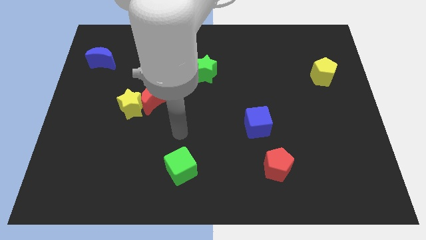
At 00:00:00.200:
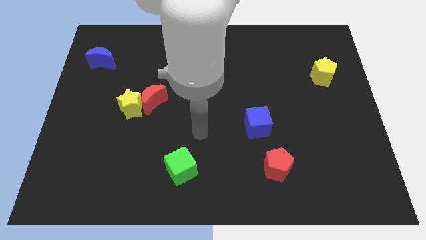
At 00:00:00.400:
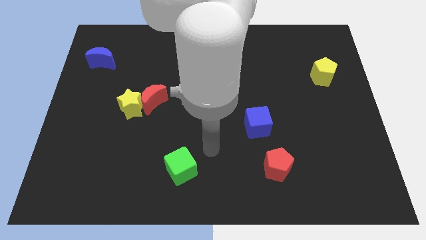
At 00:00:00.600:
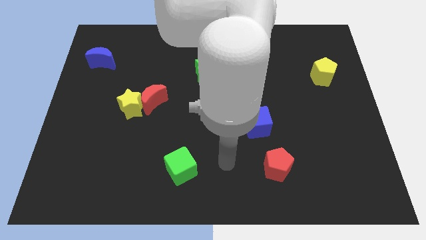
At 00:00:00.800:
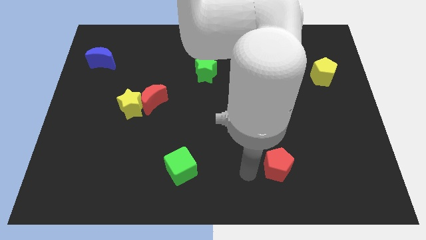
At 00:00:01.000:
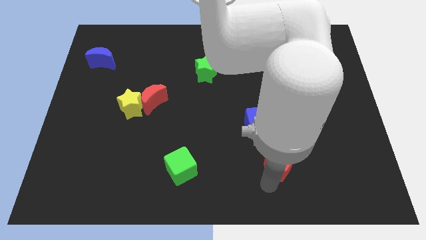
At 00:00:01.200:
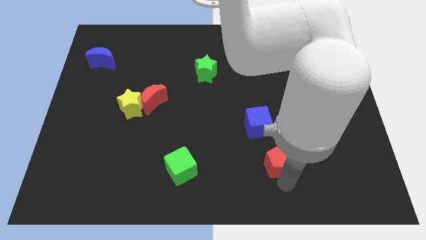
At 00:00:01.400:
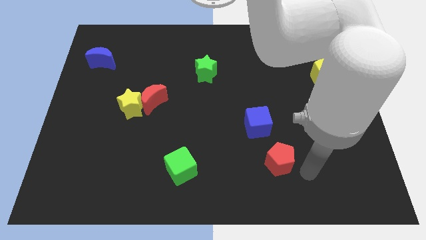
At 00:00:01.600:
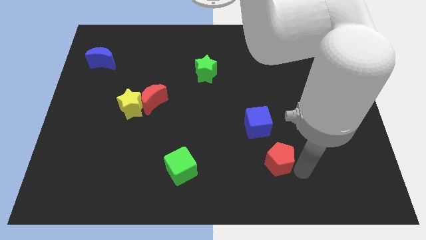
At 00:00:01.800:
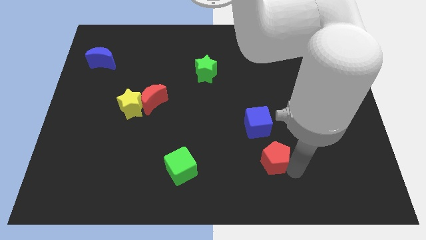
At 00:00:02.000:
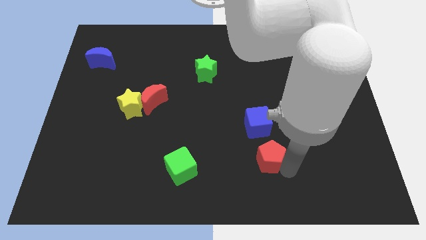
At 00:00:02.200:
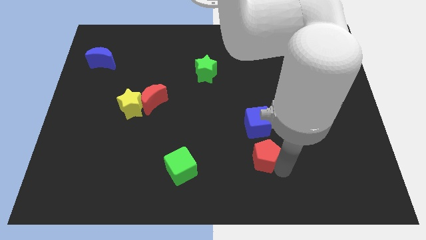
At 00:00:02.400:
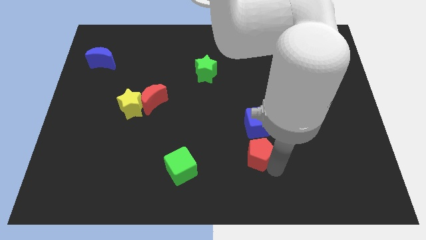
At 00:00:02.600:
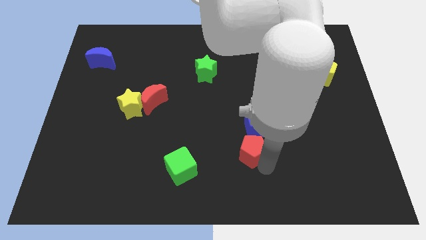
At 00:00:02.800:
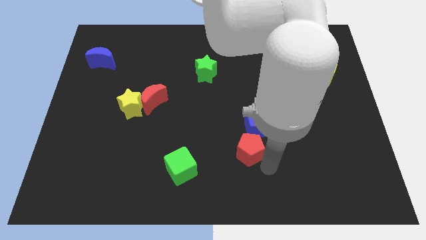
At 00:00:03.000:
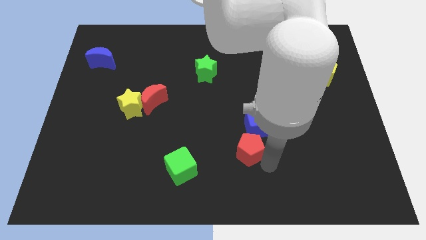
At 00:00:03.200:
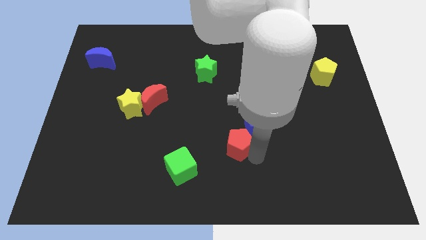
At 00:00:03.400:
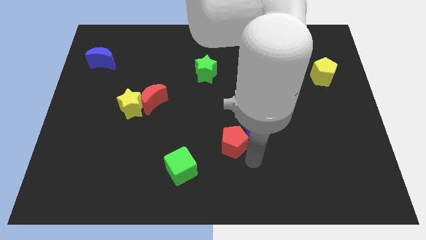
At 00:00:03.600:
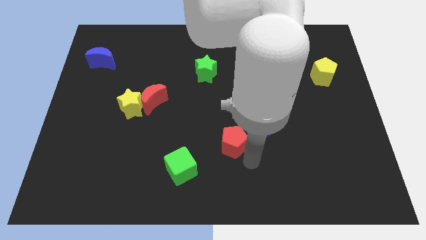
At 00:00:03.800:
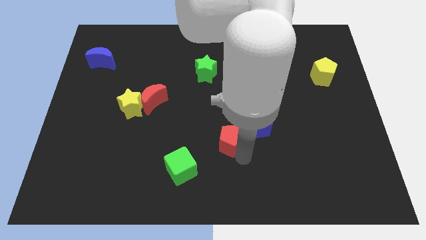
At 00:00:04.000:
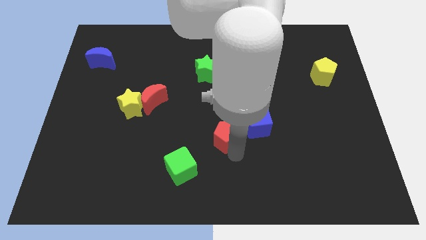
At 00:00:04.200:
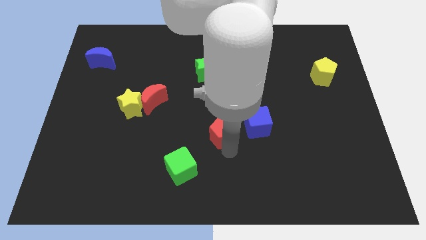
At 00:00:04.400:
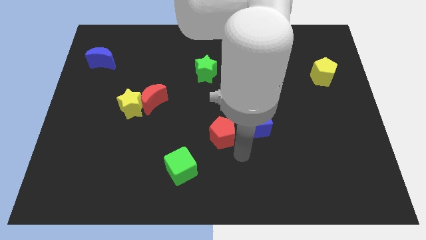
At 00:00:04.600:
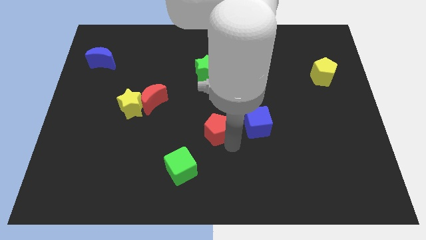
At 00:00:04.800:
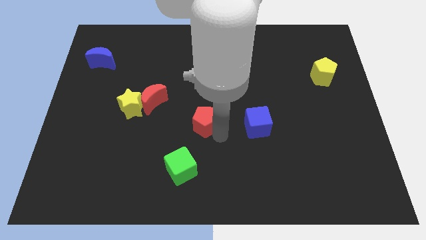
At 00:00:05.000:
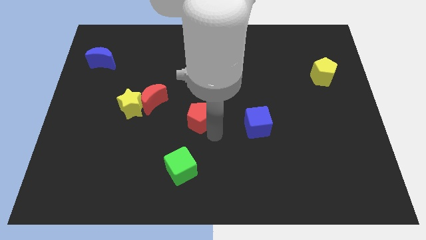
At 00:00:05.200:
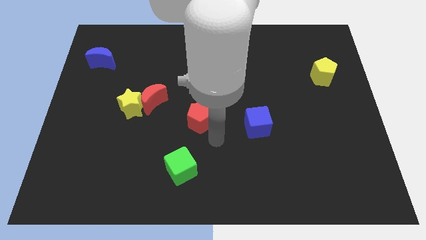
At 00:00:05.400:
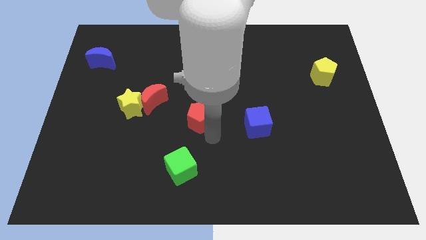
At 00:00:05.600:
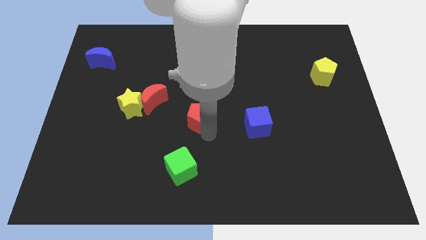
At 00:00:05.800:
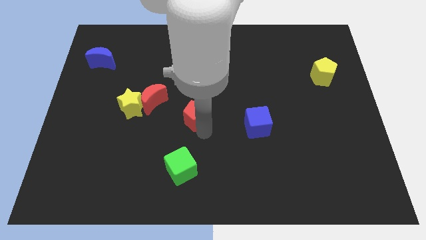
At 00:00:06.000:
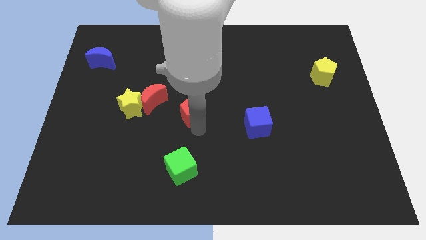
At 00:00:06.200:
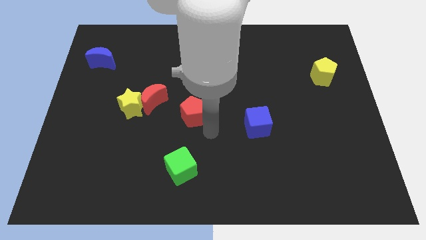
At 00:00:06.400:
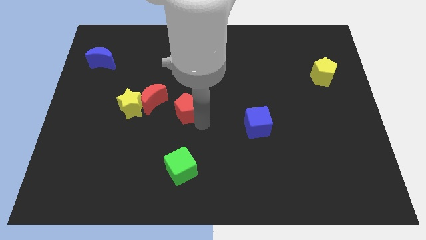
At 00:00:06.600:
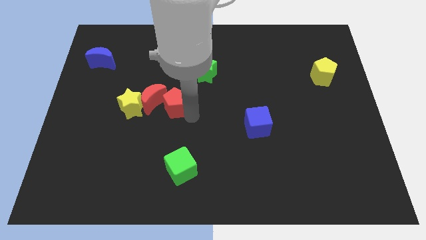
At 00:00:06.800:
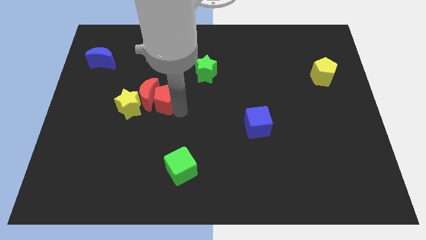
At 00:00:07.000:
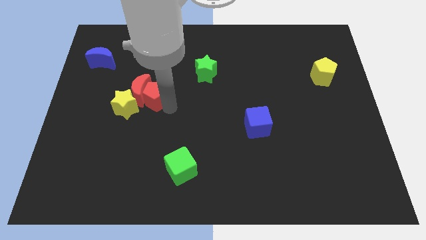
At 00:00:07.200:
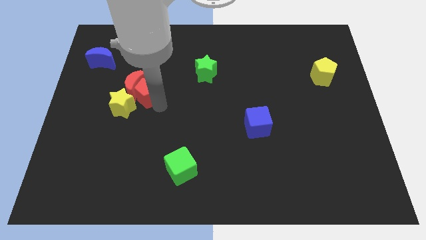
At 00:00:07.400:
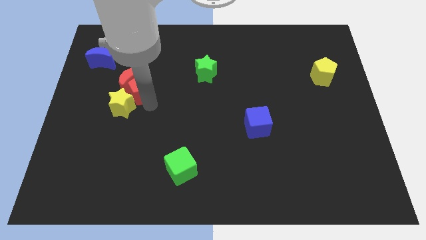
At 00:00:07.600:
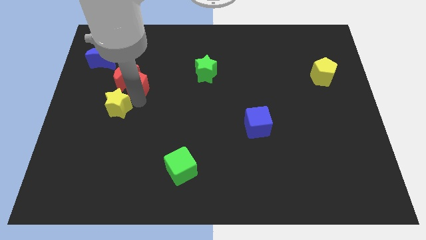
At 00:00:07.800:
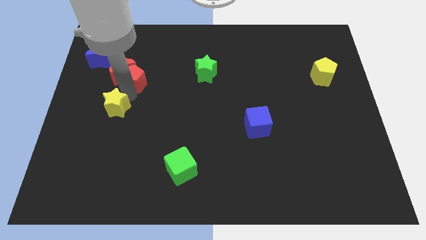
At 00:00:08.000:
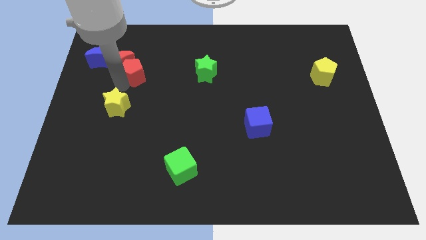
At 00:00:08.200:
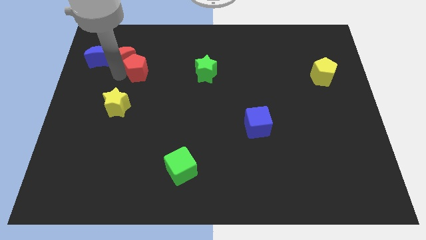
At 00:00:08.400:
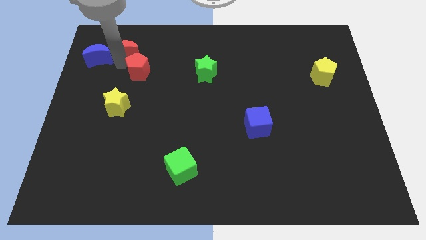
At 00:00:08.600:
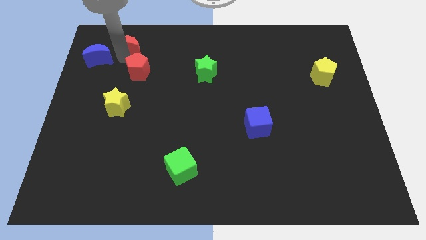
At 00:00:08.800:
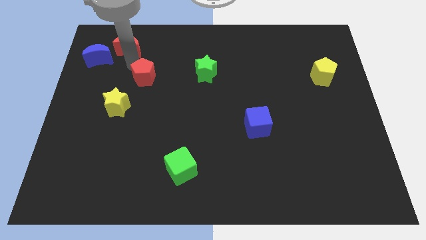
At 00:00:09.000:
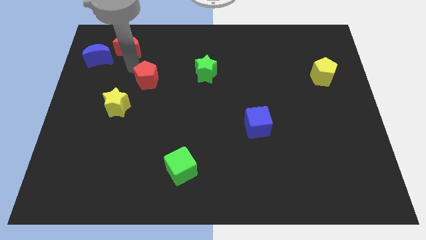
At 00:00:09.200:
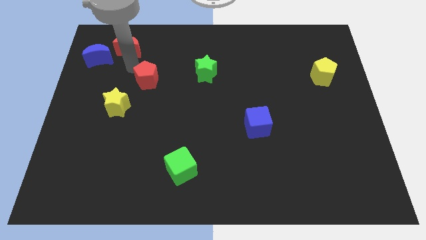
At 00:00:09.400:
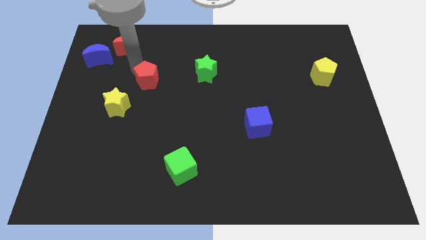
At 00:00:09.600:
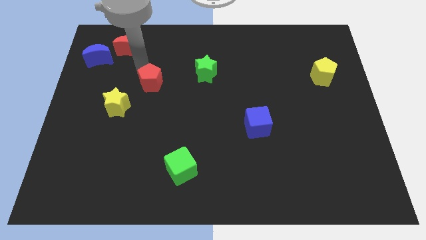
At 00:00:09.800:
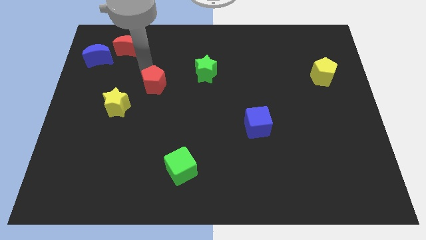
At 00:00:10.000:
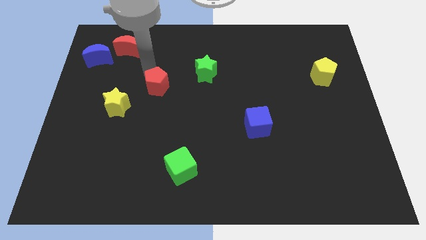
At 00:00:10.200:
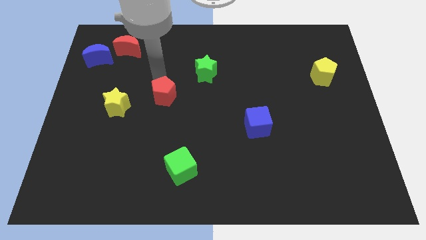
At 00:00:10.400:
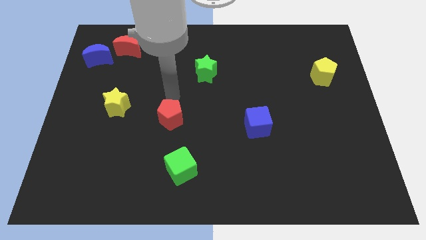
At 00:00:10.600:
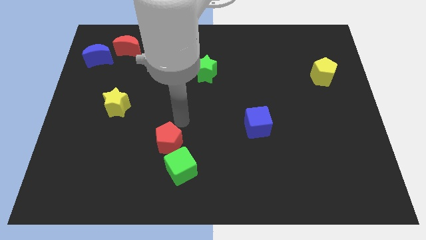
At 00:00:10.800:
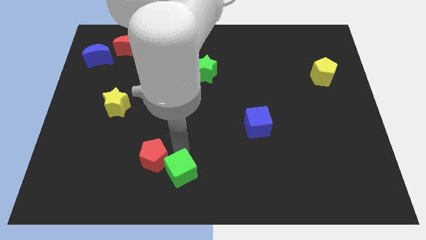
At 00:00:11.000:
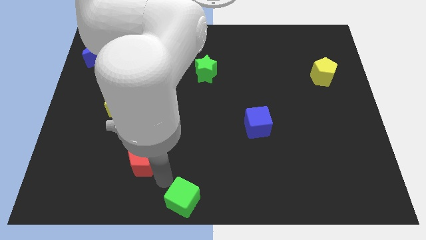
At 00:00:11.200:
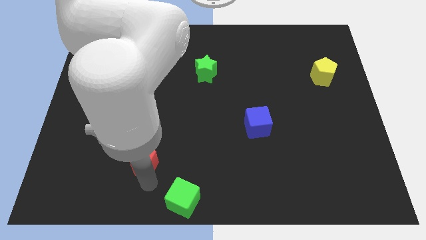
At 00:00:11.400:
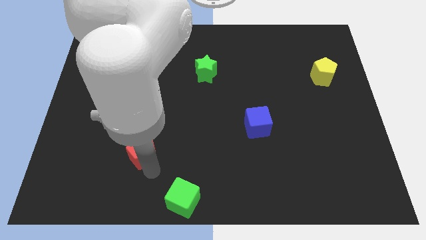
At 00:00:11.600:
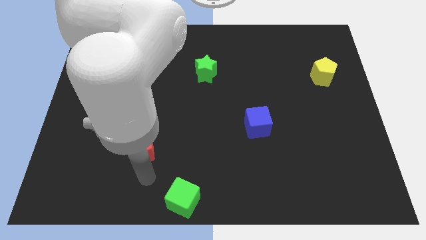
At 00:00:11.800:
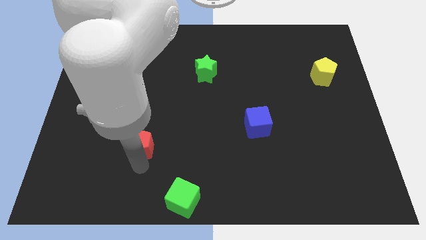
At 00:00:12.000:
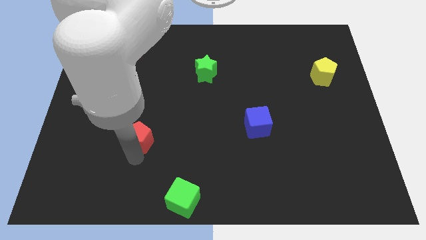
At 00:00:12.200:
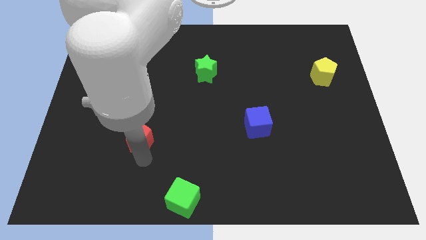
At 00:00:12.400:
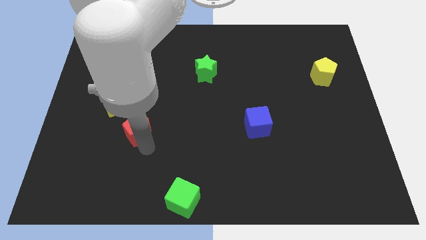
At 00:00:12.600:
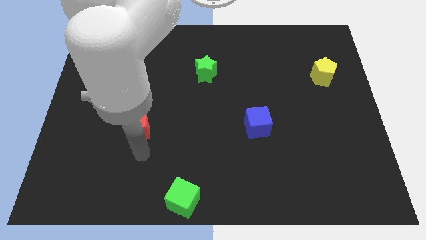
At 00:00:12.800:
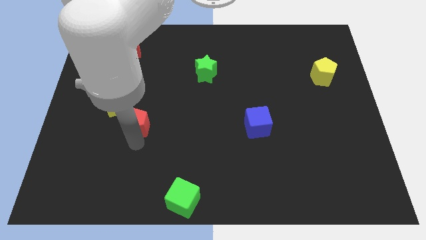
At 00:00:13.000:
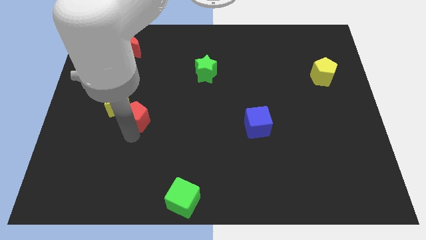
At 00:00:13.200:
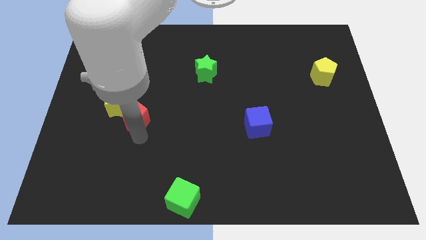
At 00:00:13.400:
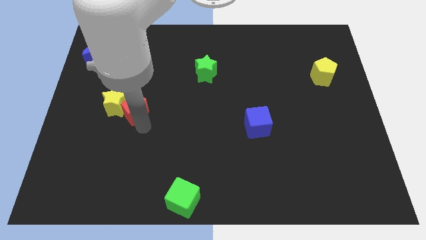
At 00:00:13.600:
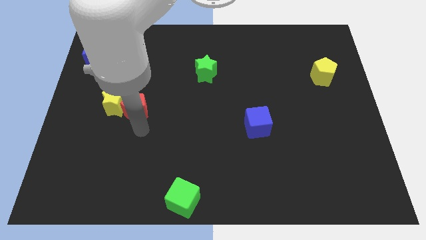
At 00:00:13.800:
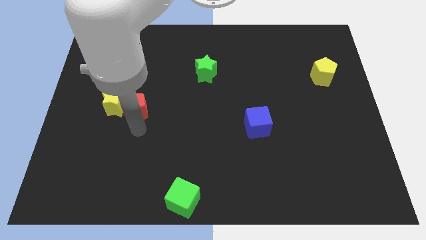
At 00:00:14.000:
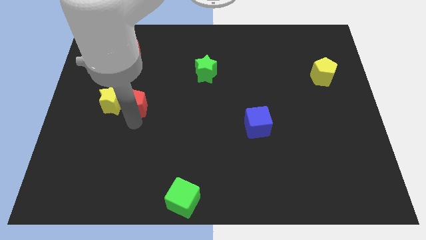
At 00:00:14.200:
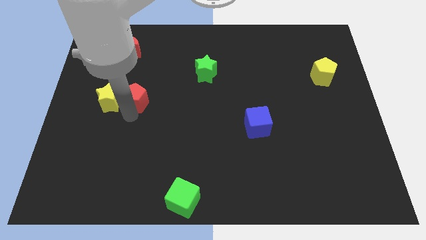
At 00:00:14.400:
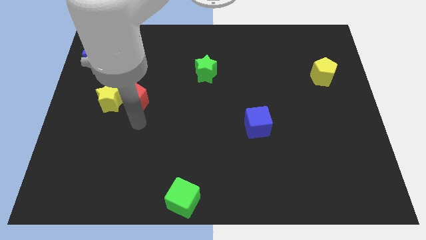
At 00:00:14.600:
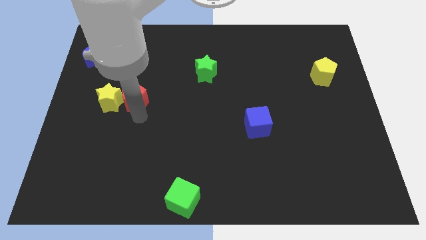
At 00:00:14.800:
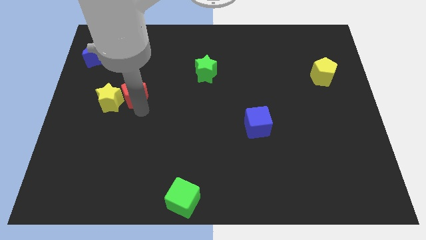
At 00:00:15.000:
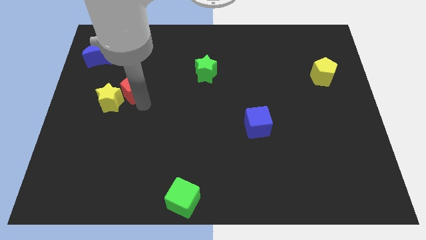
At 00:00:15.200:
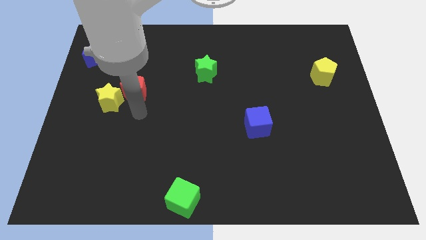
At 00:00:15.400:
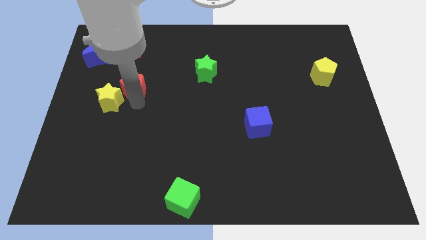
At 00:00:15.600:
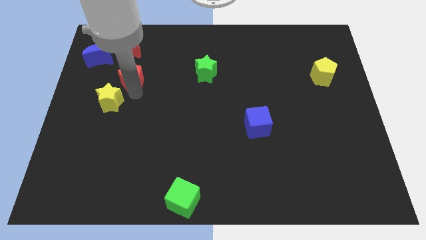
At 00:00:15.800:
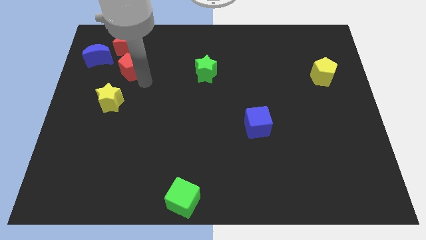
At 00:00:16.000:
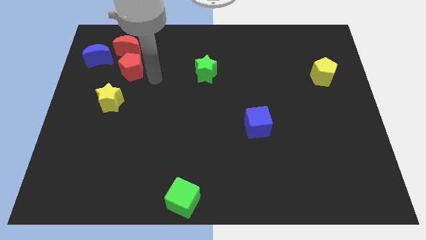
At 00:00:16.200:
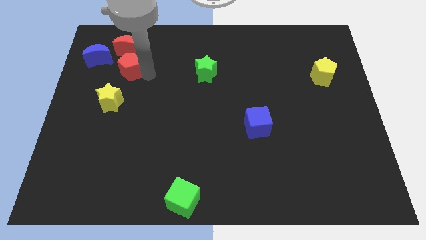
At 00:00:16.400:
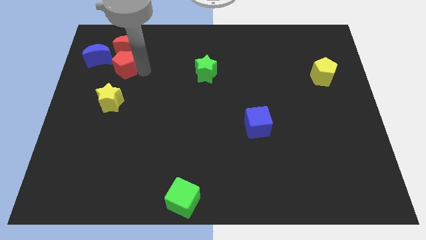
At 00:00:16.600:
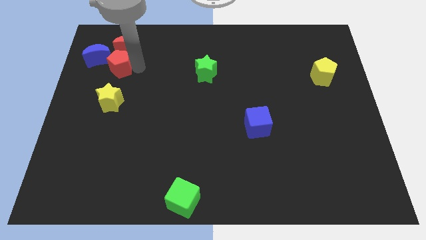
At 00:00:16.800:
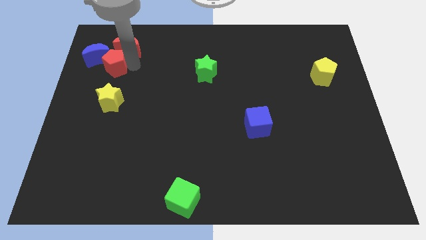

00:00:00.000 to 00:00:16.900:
slide the red pentagon to the blue moon
